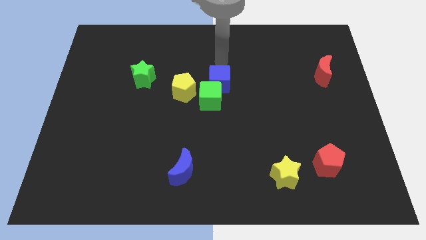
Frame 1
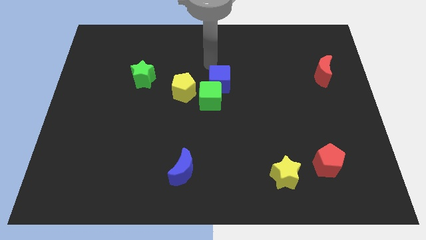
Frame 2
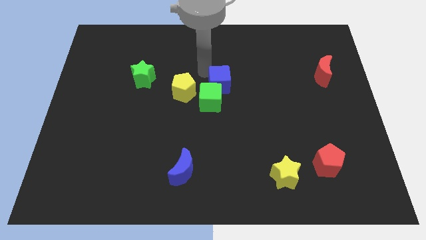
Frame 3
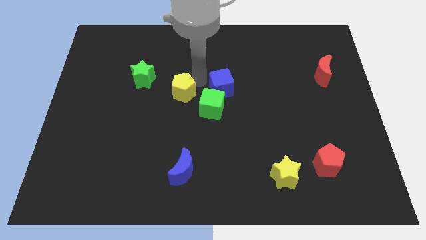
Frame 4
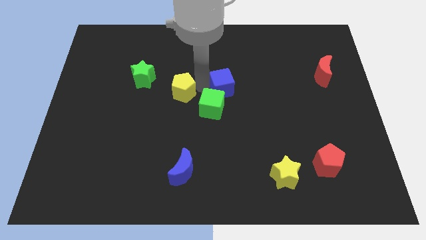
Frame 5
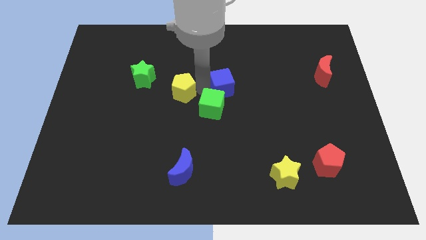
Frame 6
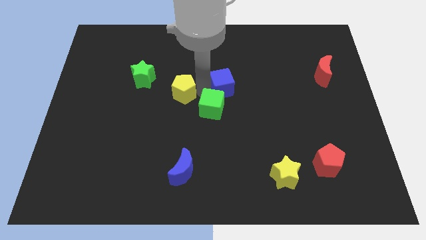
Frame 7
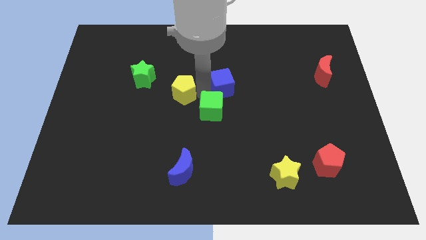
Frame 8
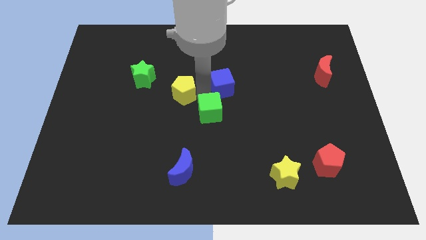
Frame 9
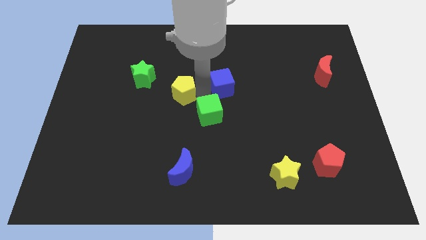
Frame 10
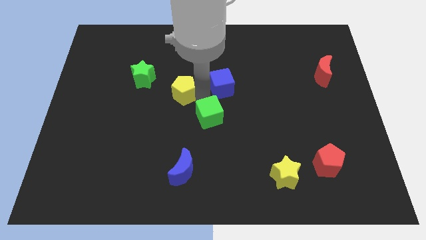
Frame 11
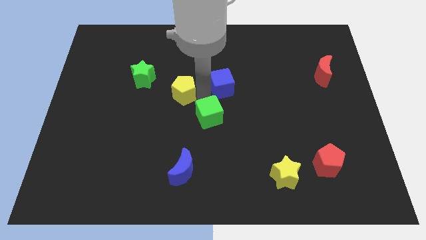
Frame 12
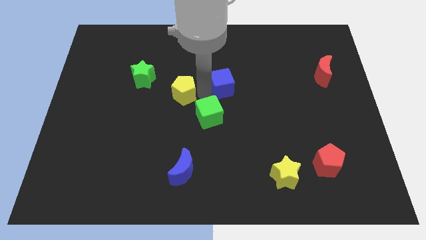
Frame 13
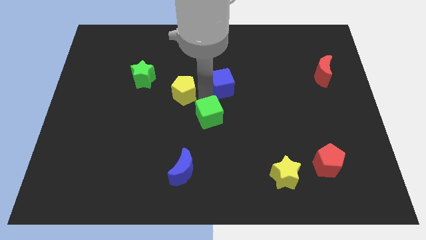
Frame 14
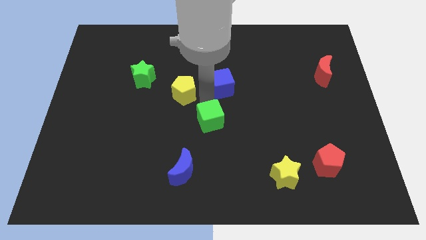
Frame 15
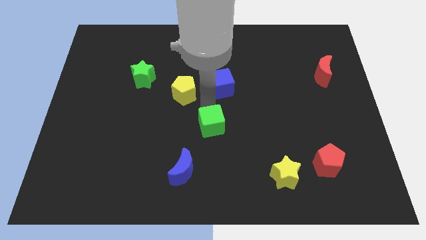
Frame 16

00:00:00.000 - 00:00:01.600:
move the green cube away from the blue cube and yellow pentagon

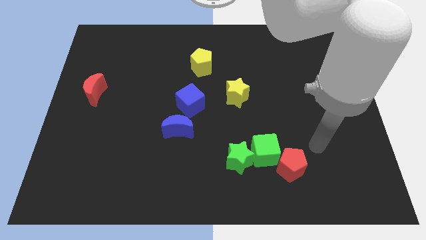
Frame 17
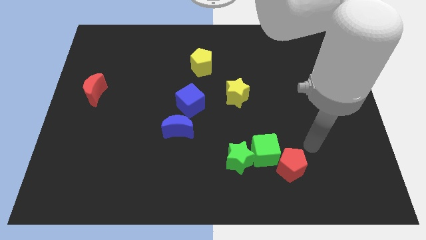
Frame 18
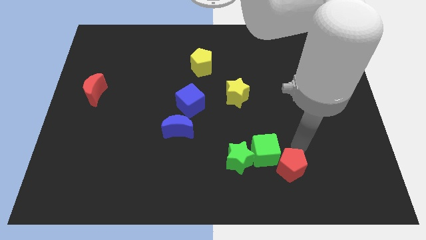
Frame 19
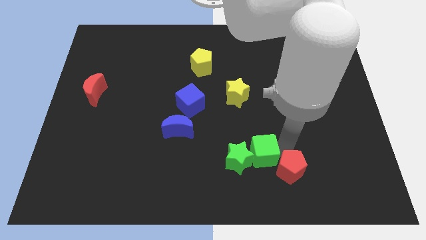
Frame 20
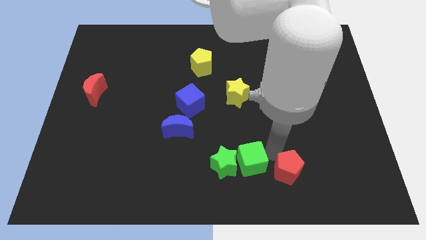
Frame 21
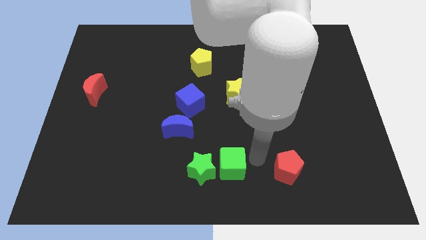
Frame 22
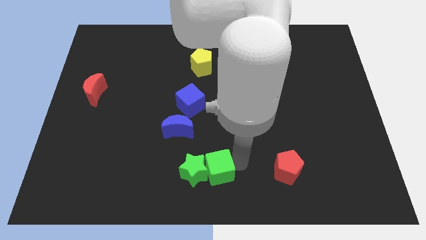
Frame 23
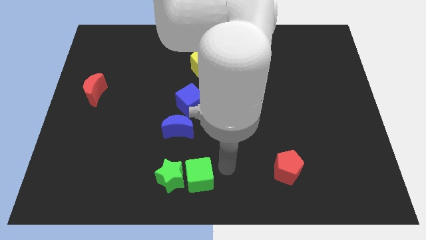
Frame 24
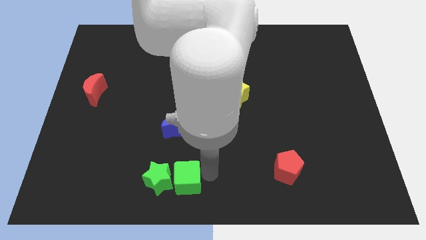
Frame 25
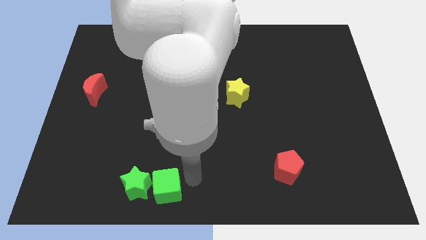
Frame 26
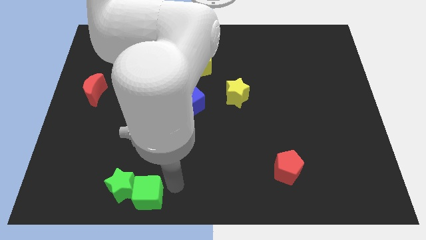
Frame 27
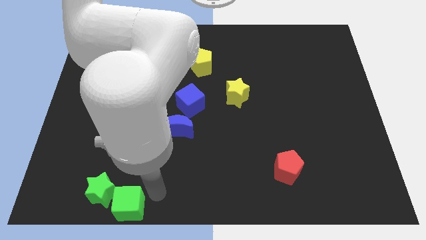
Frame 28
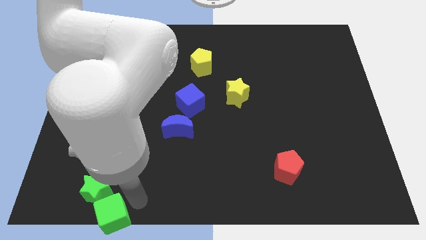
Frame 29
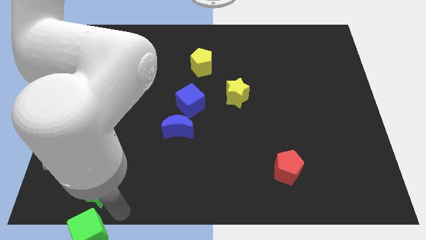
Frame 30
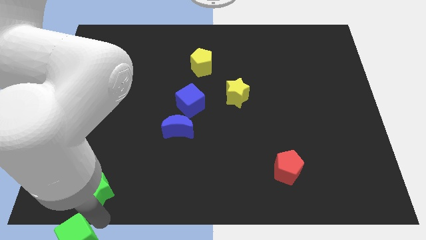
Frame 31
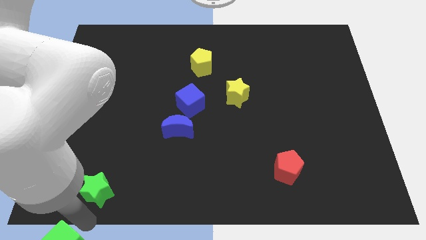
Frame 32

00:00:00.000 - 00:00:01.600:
move the green star away from the green cube

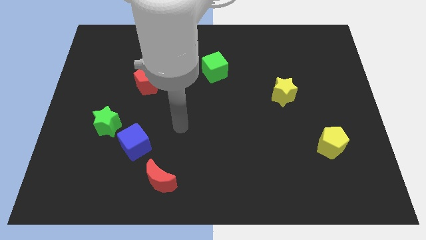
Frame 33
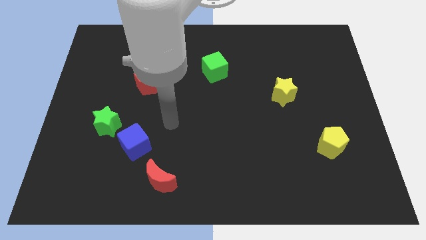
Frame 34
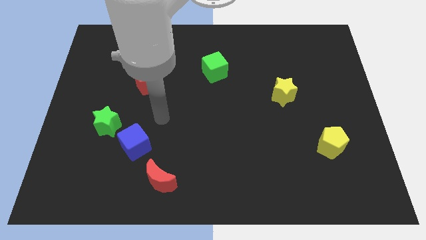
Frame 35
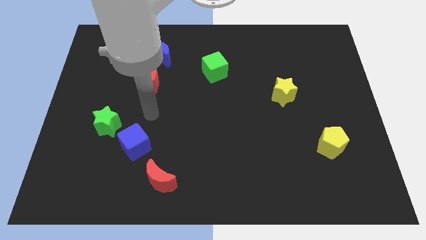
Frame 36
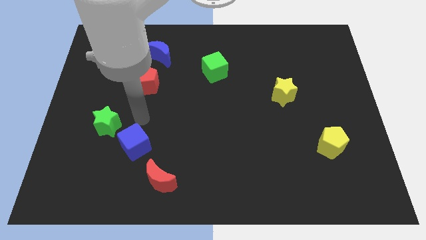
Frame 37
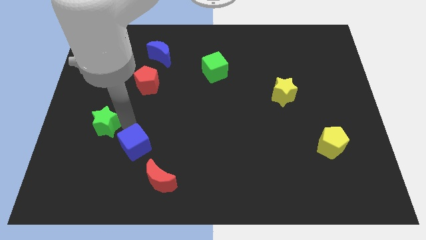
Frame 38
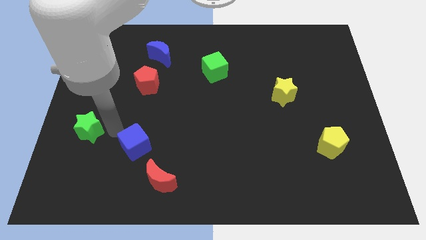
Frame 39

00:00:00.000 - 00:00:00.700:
pull the blue cube apart from the green star

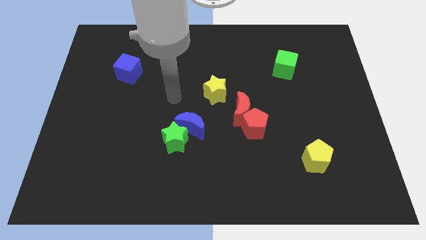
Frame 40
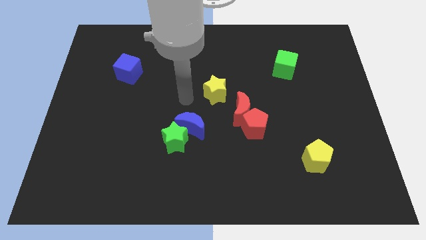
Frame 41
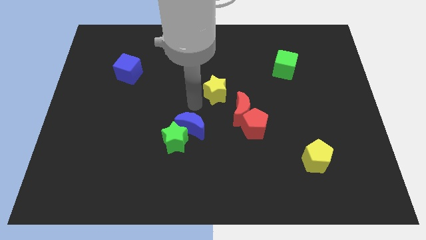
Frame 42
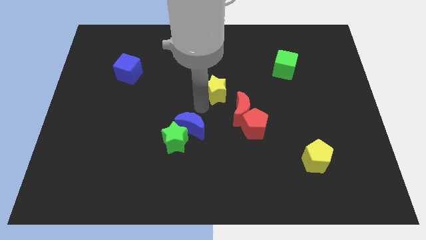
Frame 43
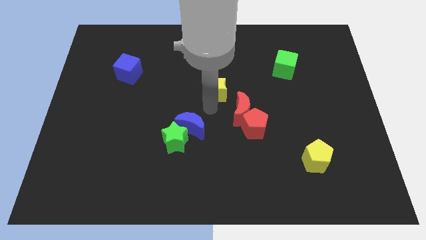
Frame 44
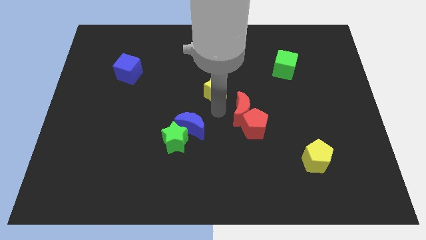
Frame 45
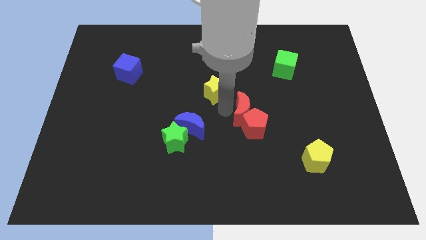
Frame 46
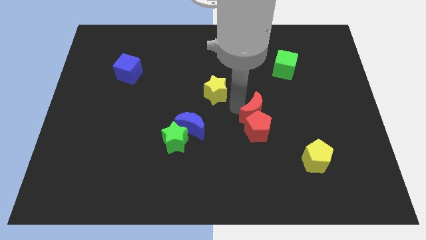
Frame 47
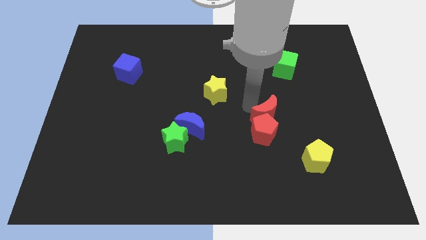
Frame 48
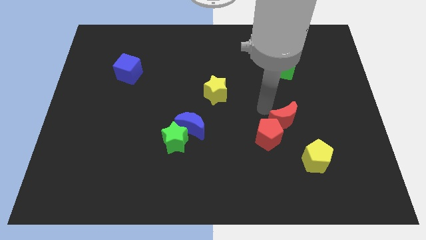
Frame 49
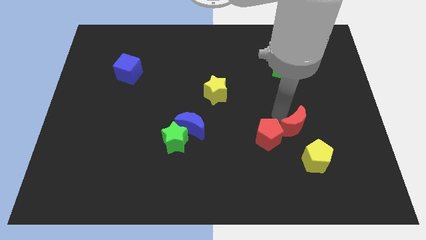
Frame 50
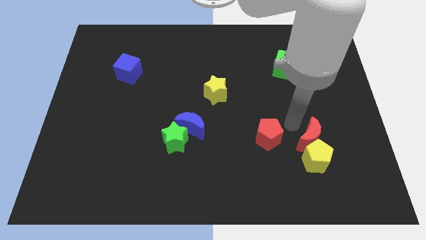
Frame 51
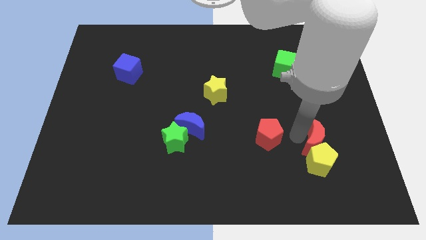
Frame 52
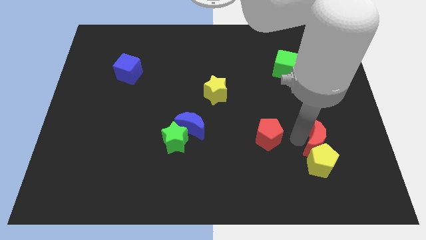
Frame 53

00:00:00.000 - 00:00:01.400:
separate the red pentagon from the red moon

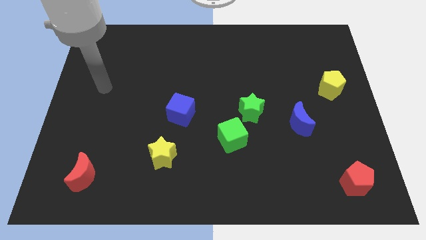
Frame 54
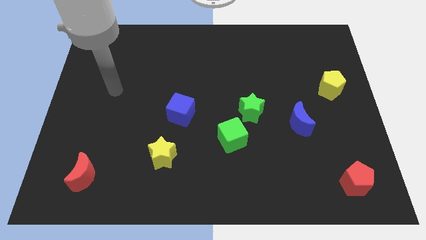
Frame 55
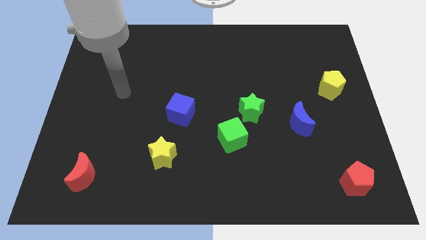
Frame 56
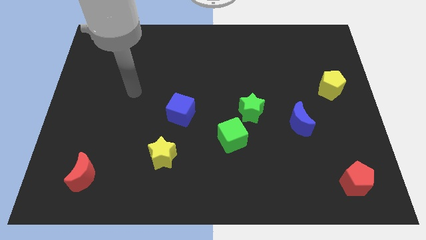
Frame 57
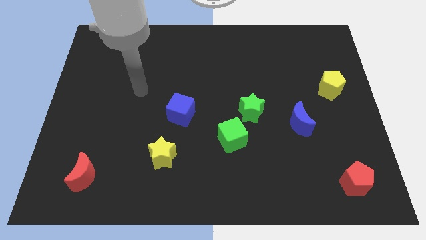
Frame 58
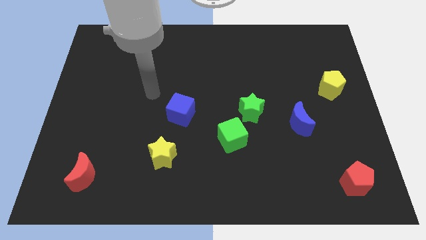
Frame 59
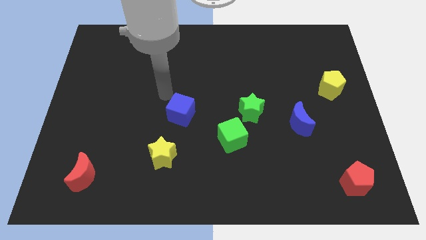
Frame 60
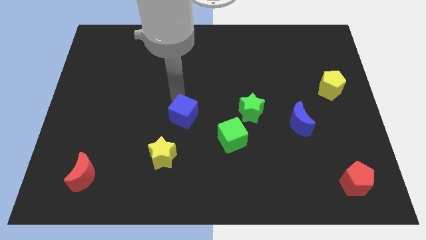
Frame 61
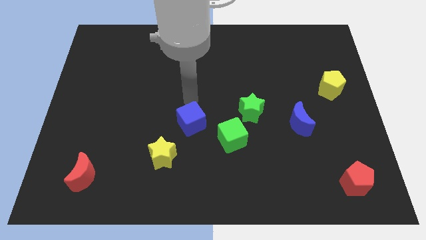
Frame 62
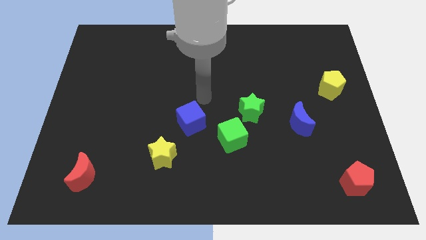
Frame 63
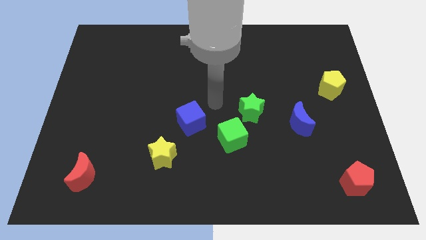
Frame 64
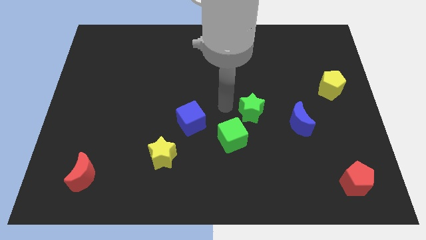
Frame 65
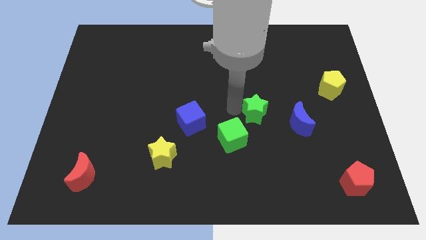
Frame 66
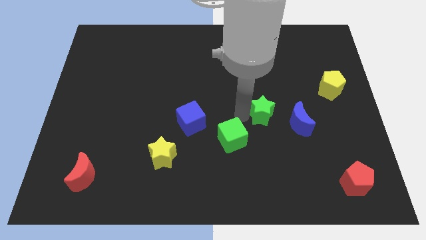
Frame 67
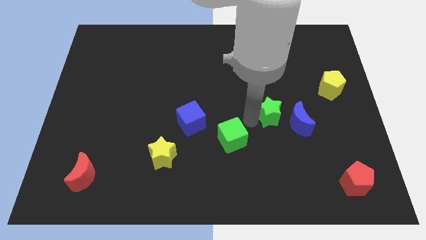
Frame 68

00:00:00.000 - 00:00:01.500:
move the green cube away from the green star

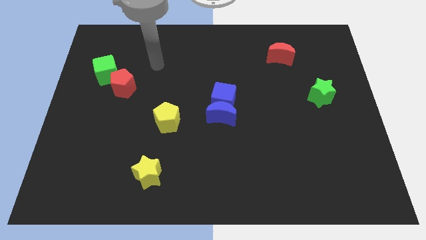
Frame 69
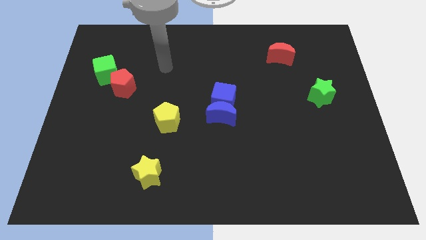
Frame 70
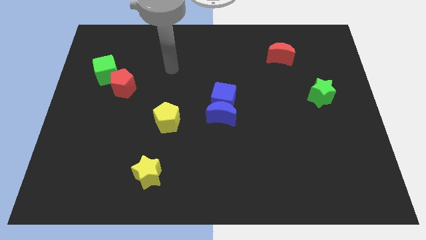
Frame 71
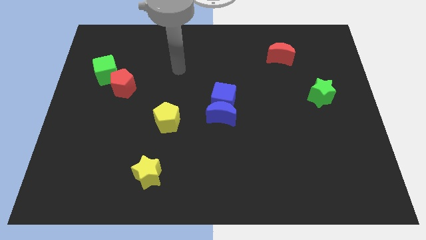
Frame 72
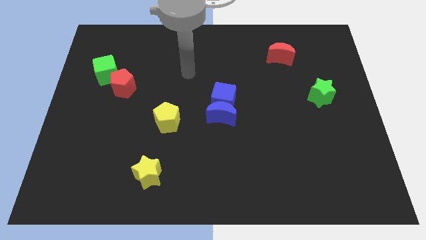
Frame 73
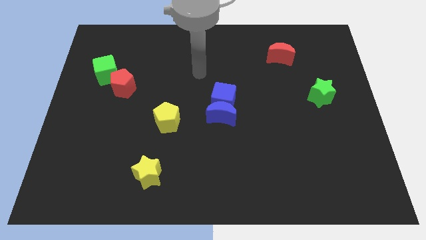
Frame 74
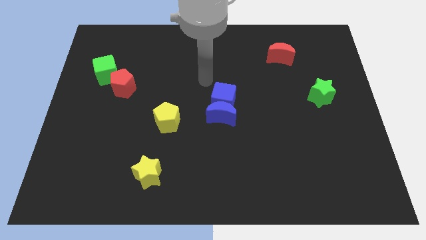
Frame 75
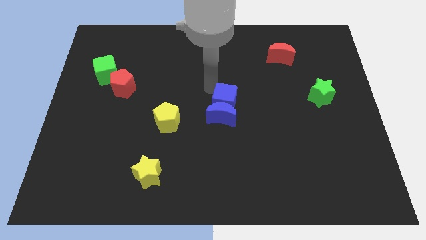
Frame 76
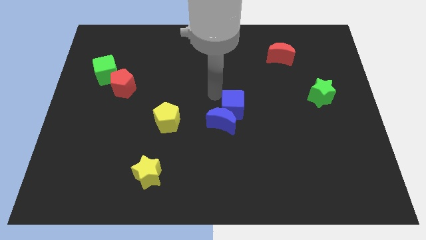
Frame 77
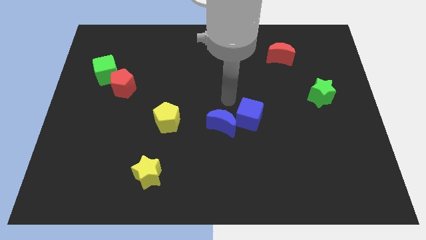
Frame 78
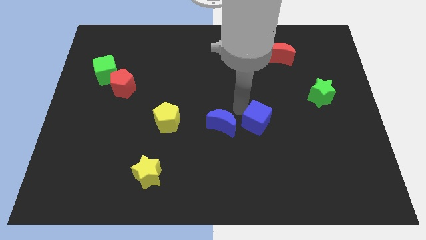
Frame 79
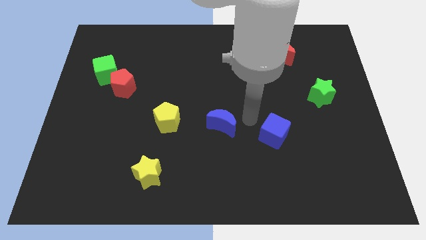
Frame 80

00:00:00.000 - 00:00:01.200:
pull the blue moon apart from the blue cube

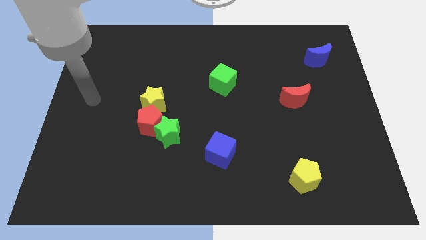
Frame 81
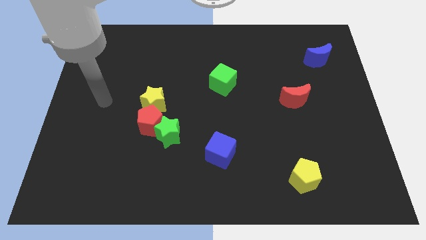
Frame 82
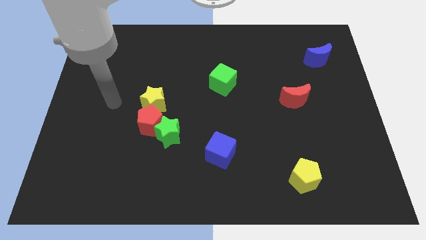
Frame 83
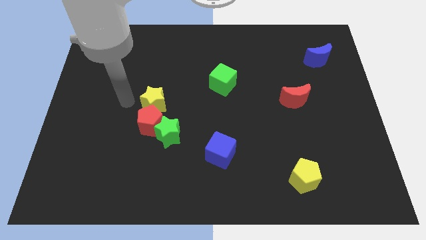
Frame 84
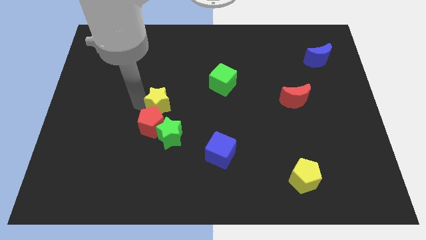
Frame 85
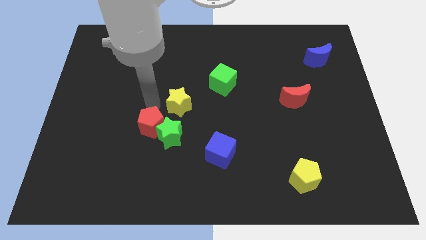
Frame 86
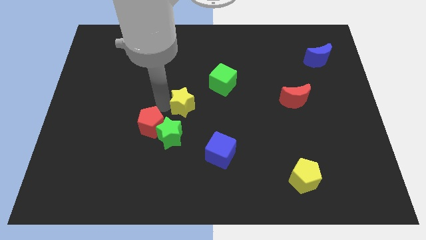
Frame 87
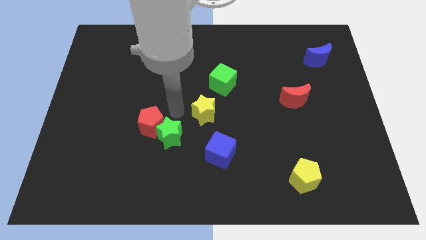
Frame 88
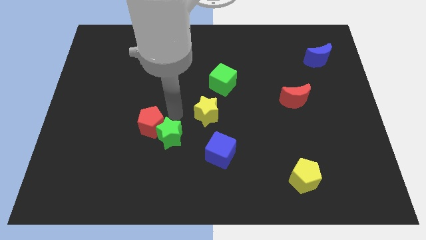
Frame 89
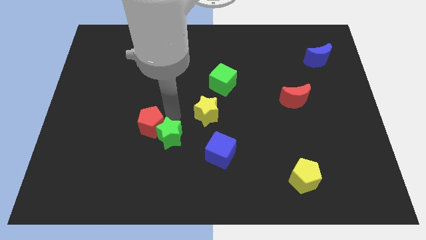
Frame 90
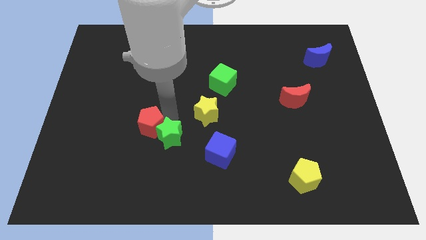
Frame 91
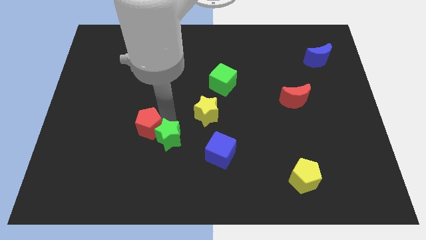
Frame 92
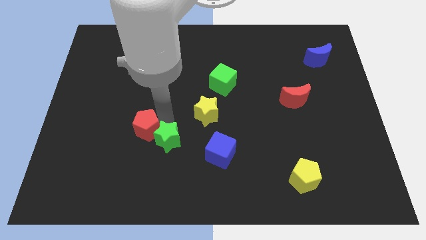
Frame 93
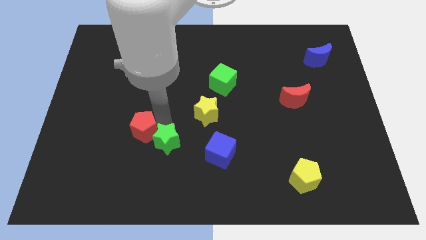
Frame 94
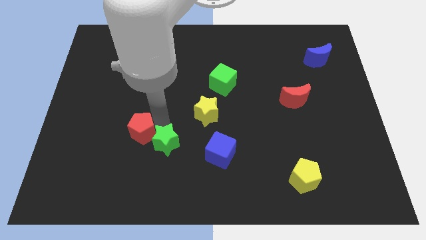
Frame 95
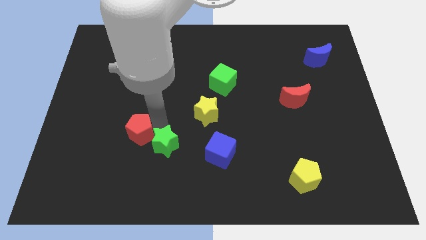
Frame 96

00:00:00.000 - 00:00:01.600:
pull the red pentagon apart from the green star and yellow star
